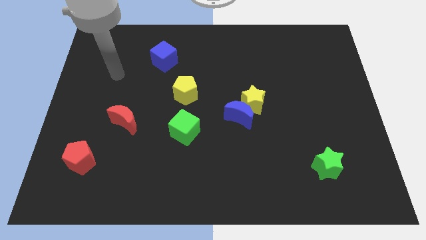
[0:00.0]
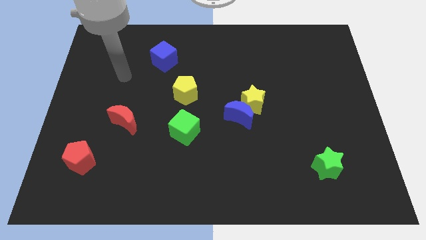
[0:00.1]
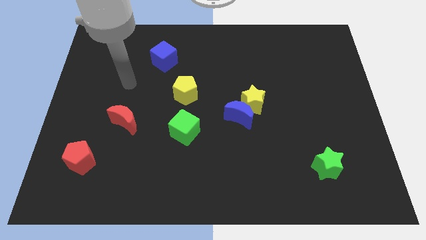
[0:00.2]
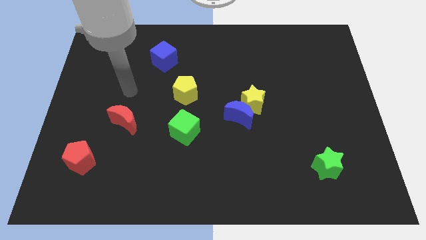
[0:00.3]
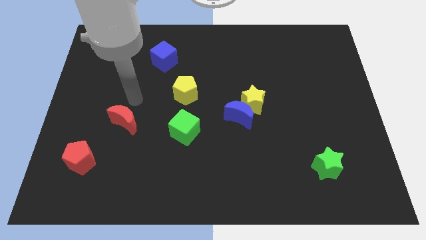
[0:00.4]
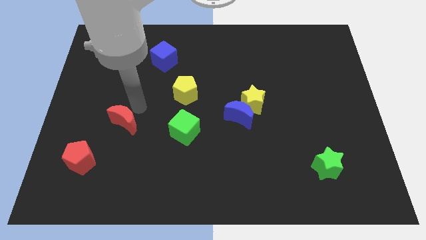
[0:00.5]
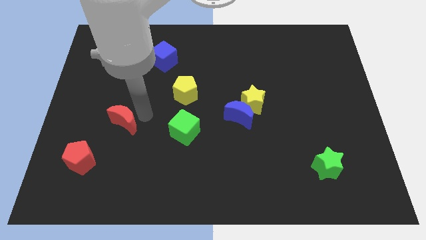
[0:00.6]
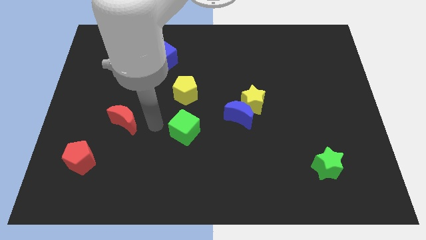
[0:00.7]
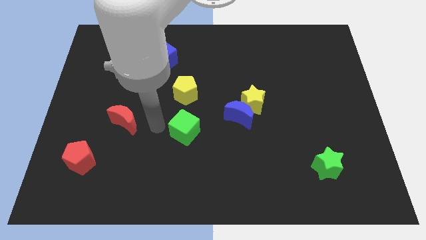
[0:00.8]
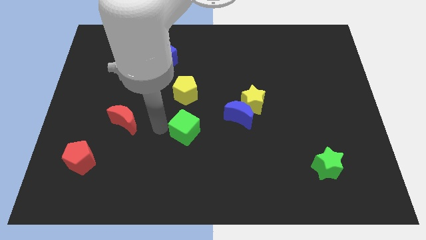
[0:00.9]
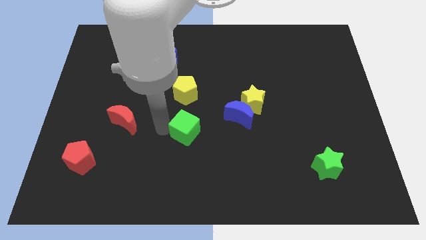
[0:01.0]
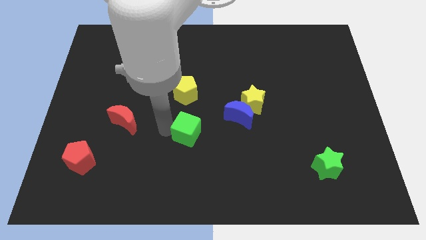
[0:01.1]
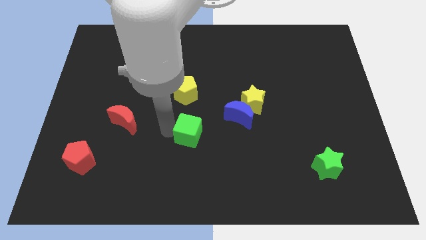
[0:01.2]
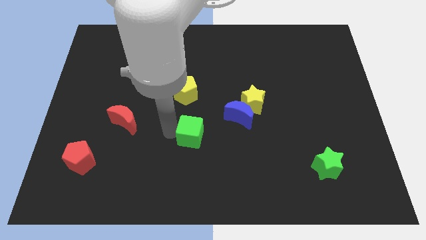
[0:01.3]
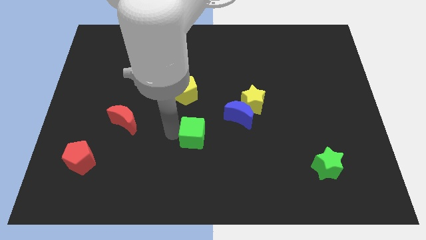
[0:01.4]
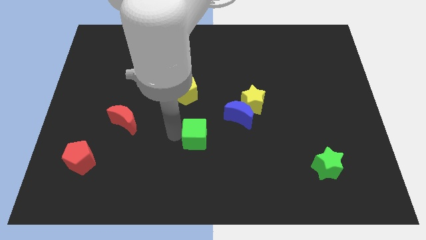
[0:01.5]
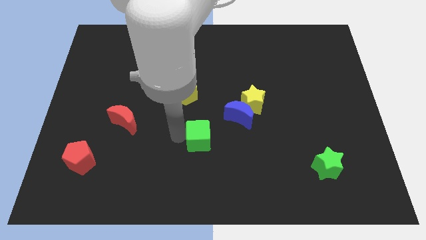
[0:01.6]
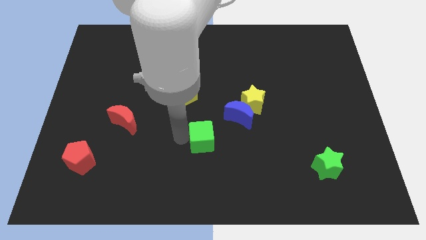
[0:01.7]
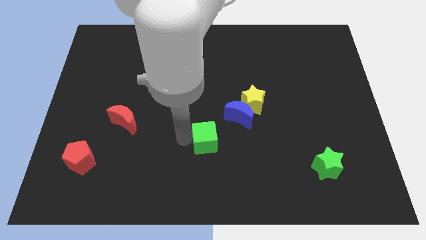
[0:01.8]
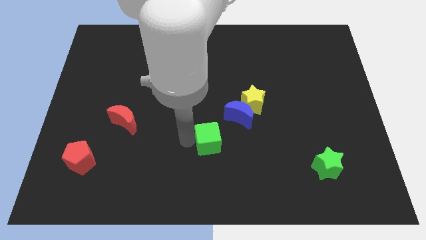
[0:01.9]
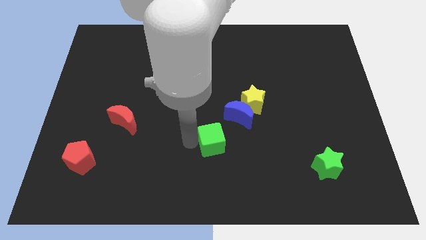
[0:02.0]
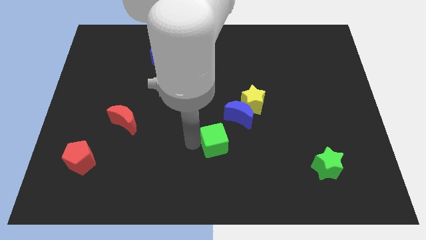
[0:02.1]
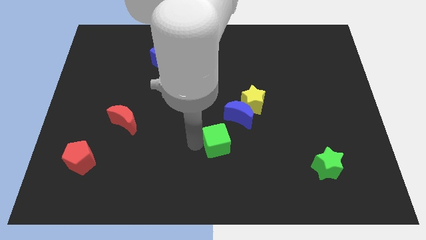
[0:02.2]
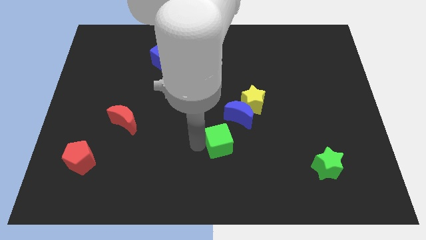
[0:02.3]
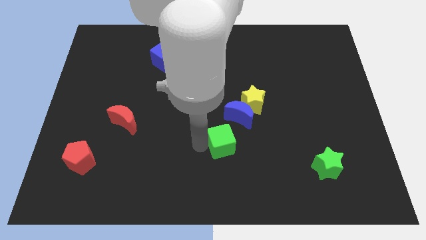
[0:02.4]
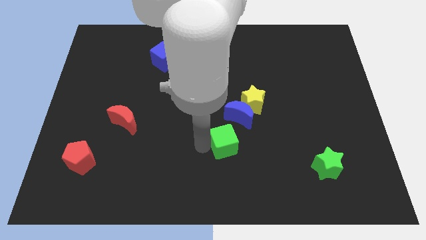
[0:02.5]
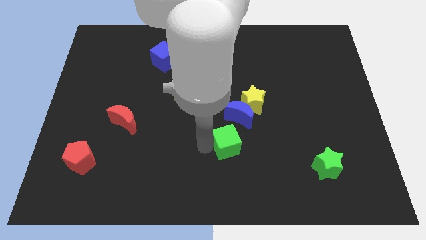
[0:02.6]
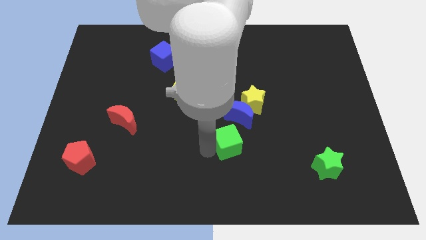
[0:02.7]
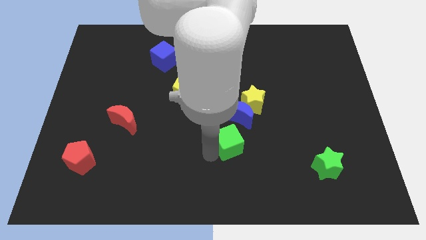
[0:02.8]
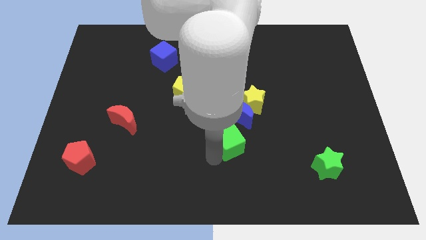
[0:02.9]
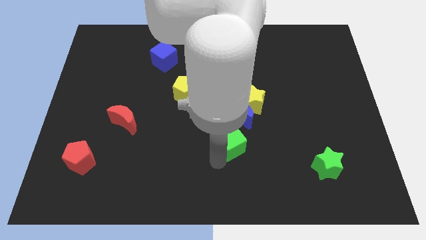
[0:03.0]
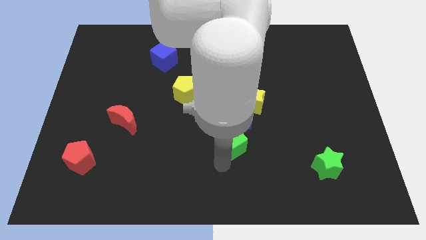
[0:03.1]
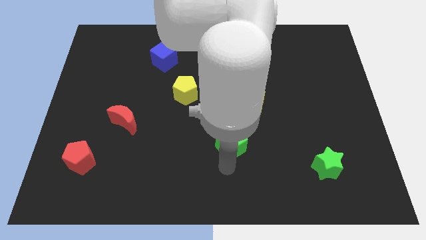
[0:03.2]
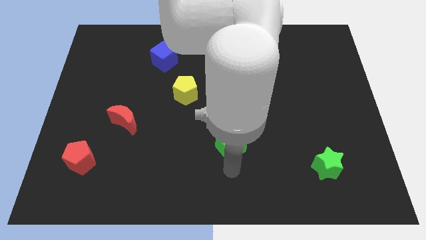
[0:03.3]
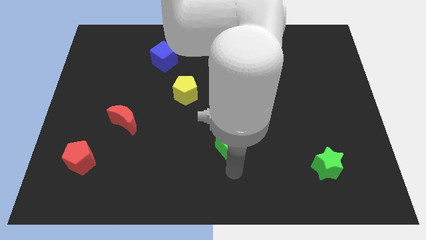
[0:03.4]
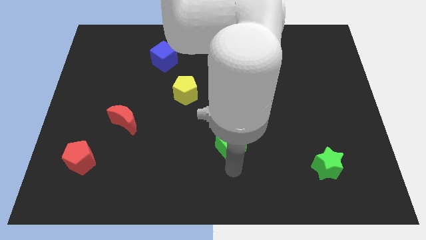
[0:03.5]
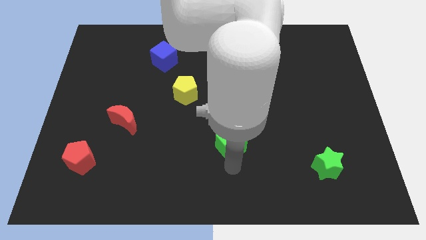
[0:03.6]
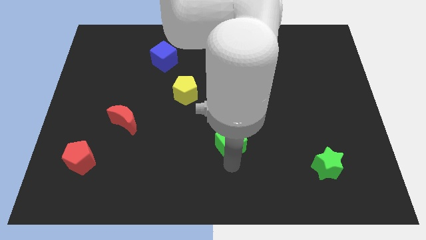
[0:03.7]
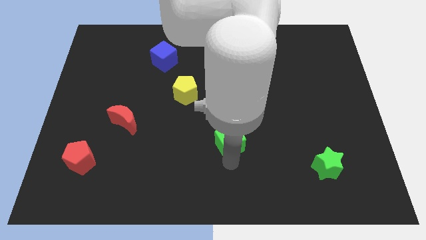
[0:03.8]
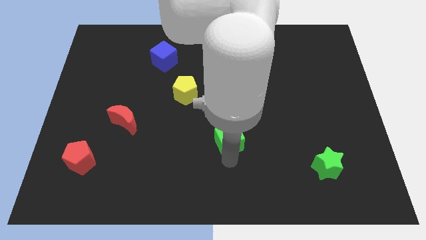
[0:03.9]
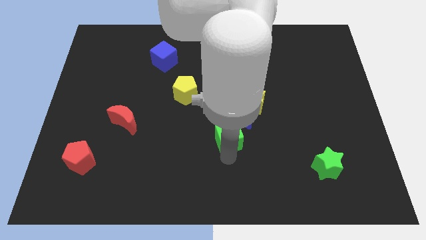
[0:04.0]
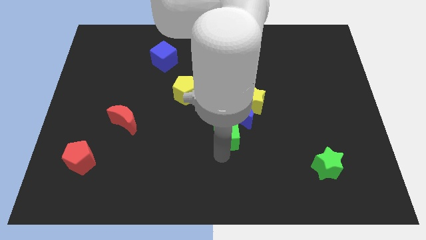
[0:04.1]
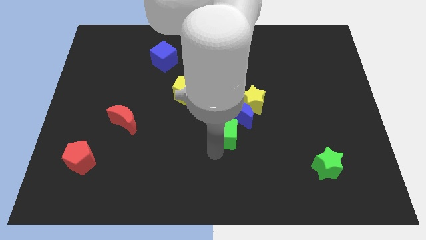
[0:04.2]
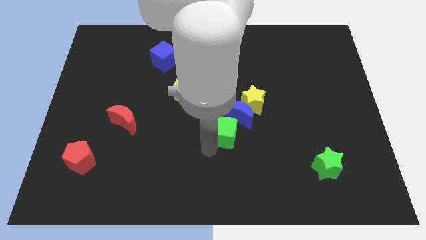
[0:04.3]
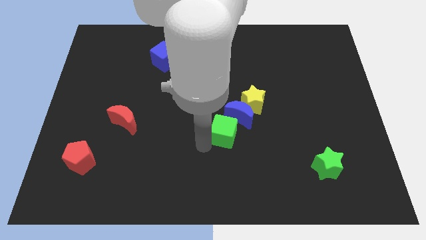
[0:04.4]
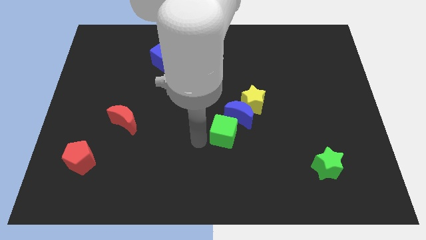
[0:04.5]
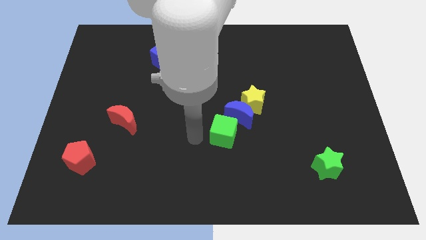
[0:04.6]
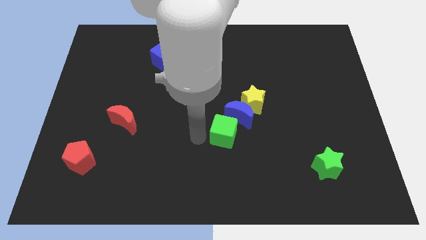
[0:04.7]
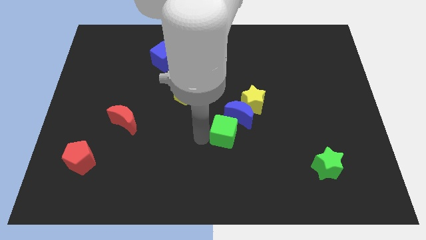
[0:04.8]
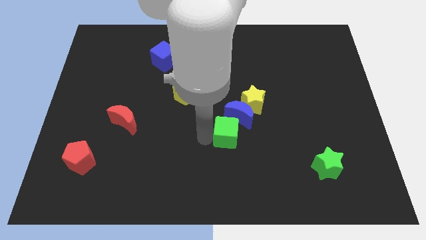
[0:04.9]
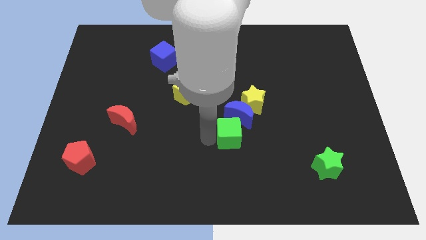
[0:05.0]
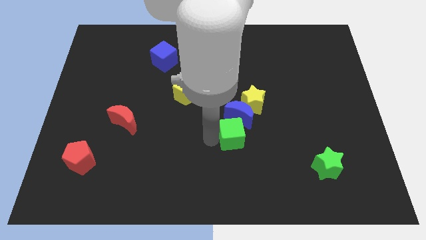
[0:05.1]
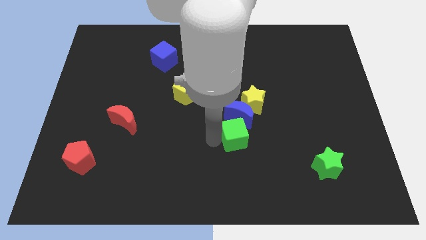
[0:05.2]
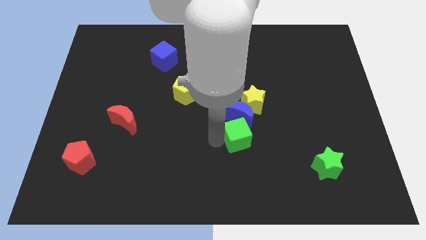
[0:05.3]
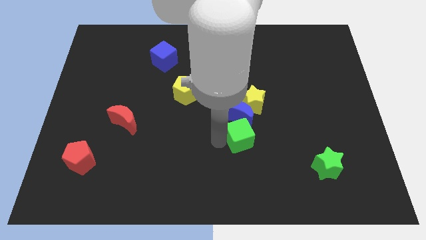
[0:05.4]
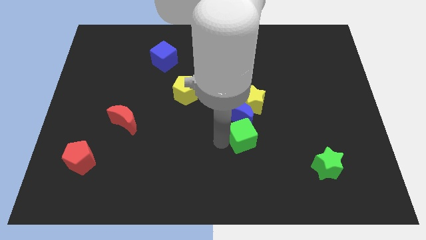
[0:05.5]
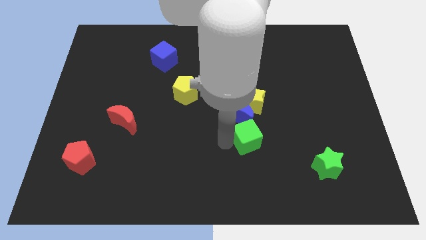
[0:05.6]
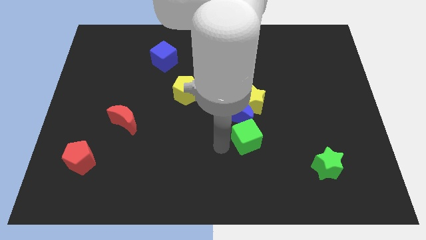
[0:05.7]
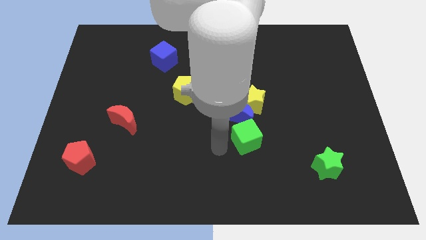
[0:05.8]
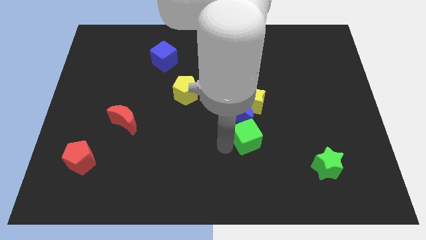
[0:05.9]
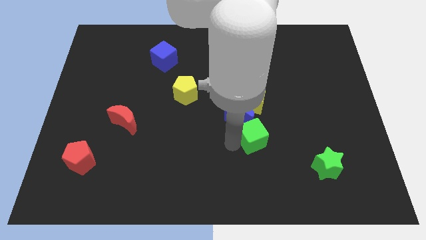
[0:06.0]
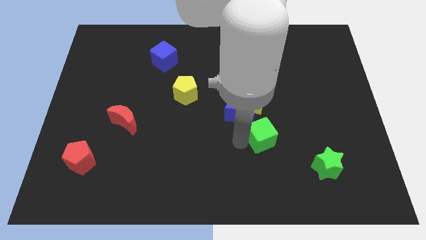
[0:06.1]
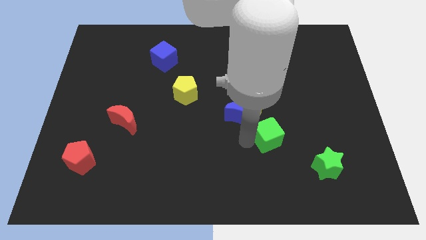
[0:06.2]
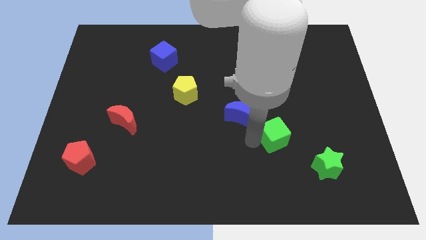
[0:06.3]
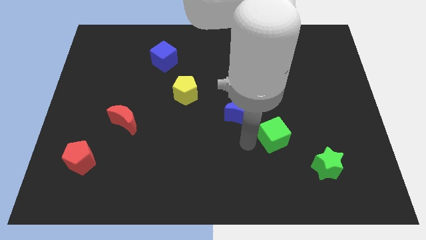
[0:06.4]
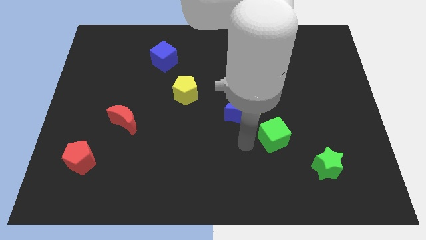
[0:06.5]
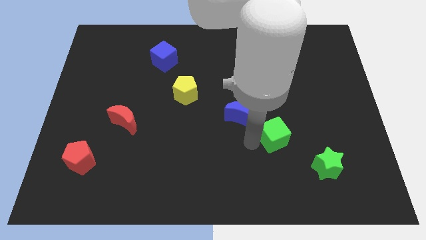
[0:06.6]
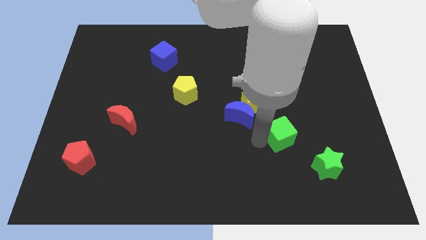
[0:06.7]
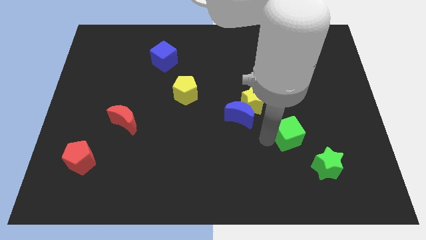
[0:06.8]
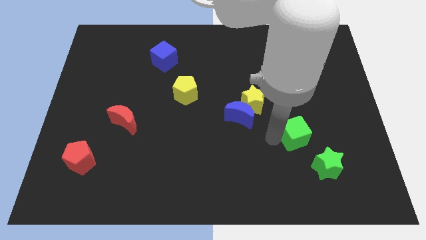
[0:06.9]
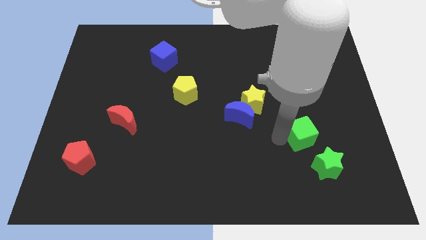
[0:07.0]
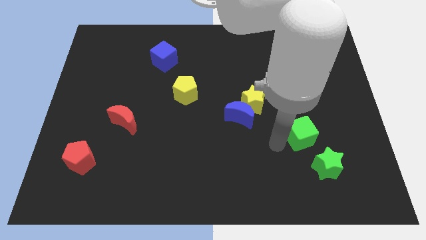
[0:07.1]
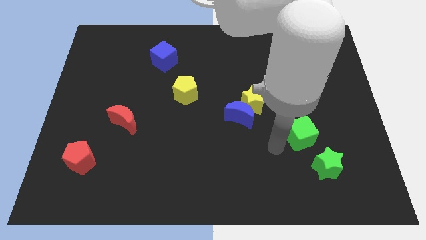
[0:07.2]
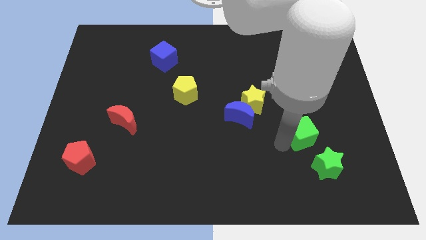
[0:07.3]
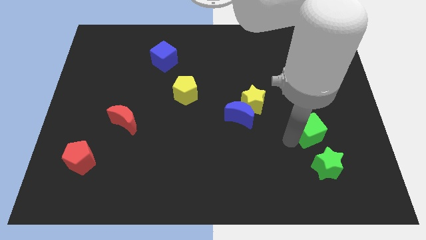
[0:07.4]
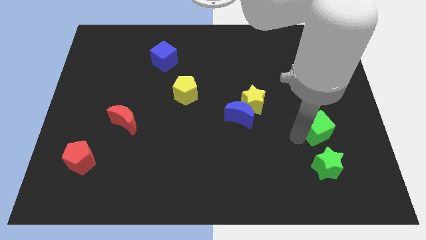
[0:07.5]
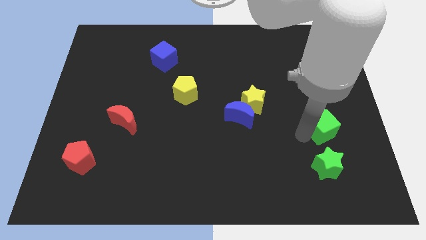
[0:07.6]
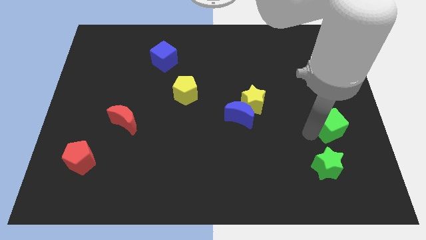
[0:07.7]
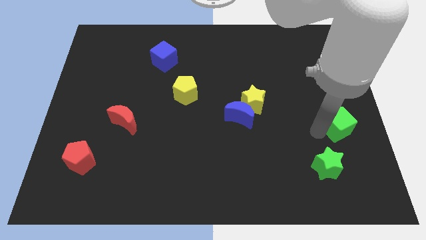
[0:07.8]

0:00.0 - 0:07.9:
slide the green cube to the right side
